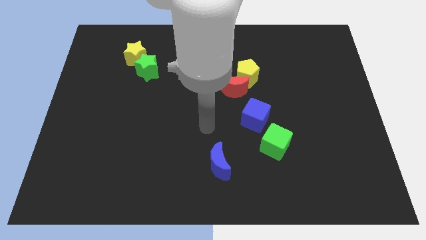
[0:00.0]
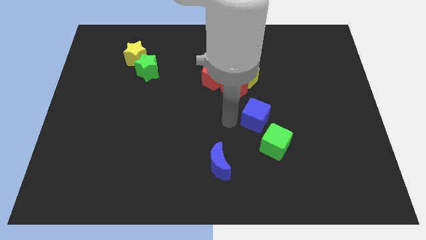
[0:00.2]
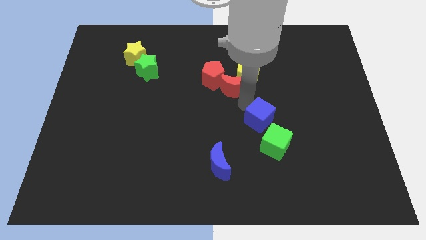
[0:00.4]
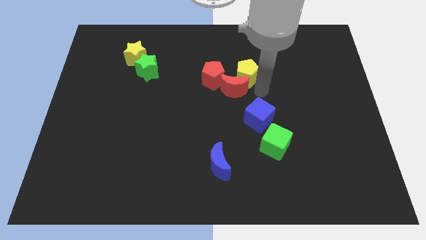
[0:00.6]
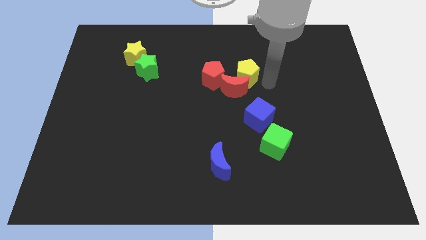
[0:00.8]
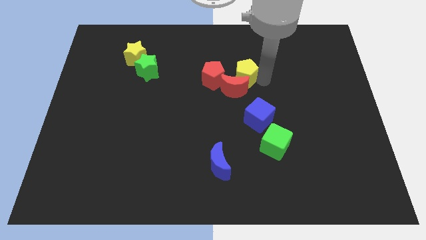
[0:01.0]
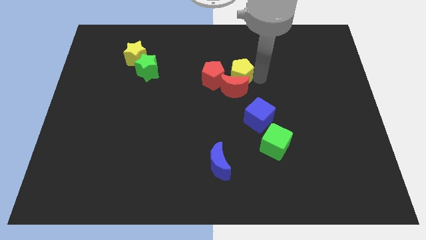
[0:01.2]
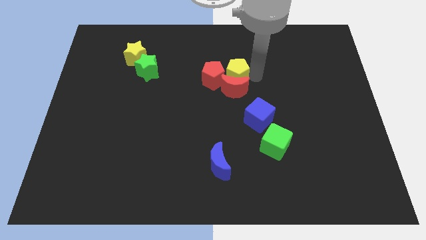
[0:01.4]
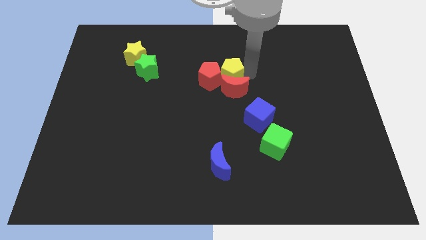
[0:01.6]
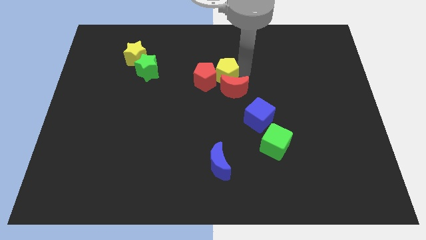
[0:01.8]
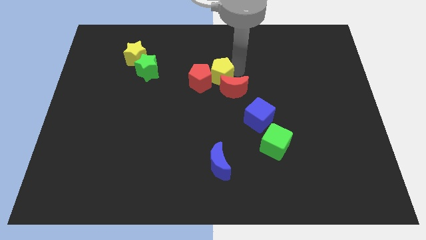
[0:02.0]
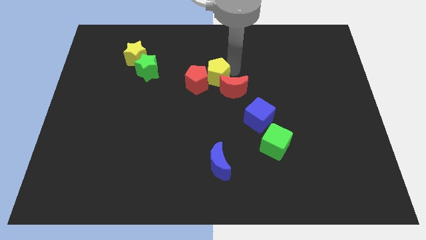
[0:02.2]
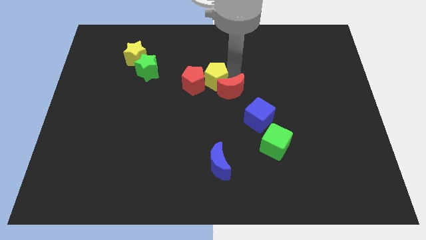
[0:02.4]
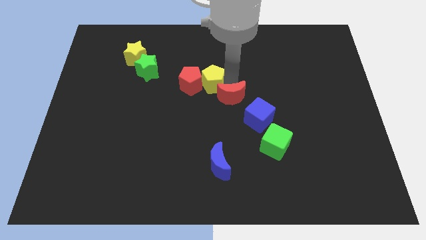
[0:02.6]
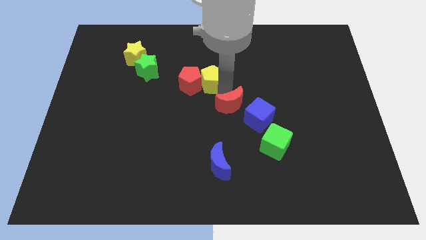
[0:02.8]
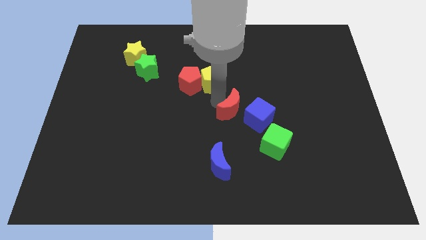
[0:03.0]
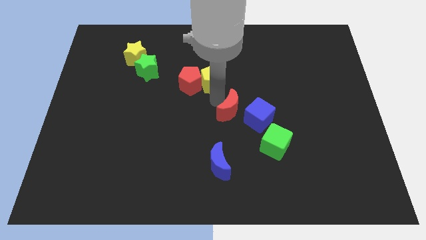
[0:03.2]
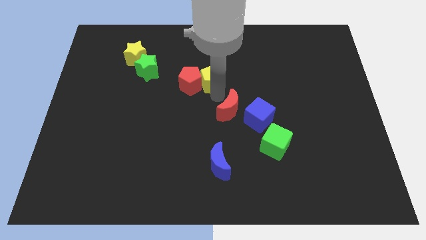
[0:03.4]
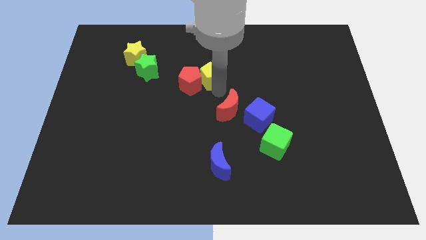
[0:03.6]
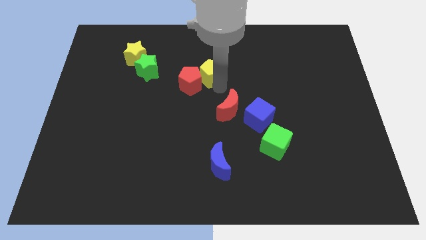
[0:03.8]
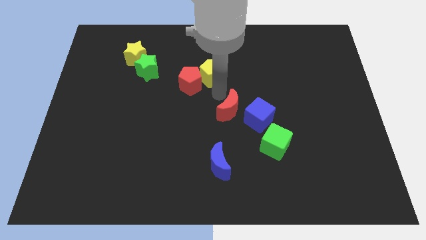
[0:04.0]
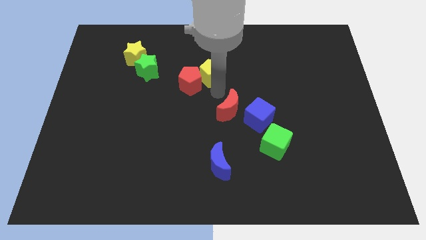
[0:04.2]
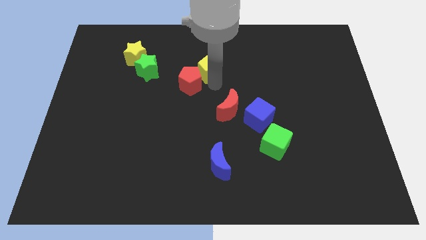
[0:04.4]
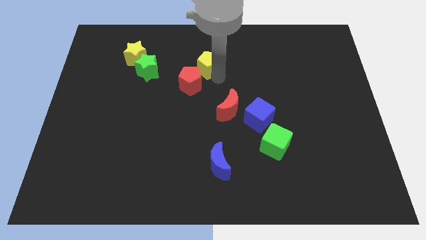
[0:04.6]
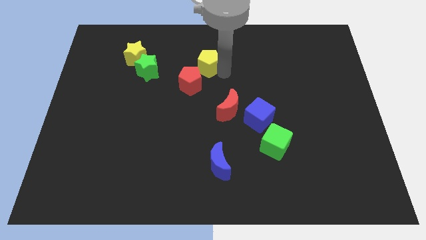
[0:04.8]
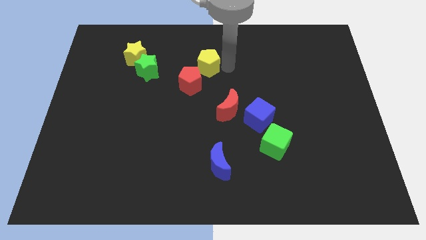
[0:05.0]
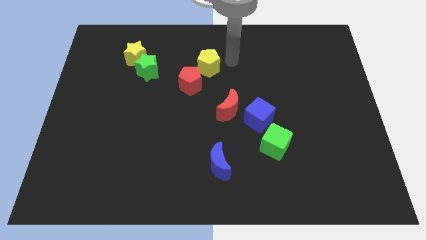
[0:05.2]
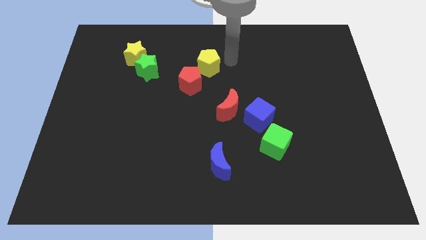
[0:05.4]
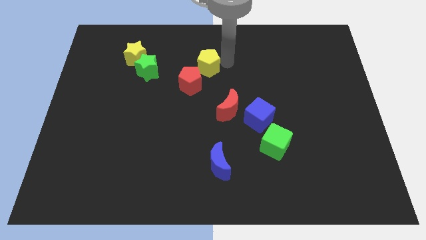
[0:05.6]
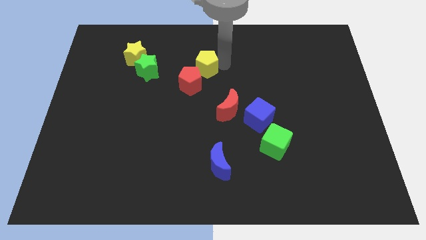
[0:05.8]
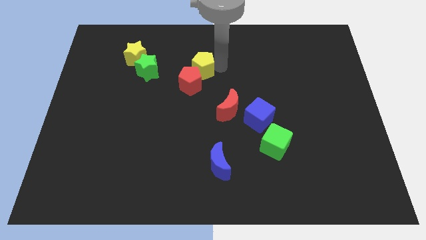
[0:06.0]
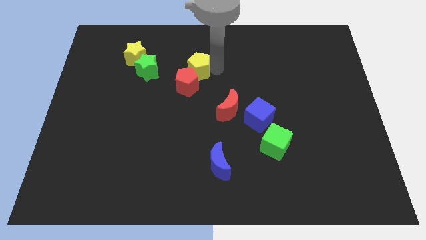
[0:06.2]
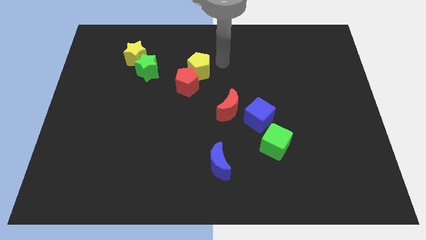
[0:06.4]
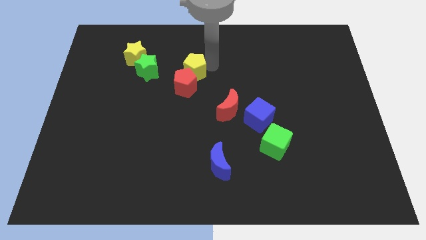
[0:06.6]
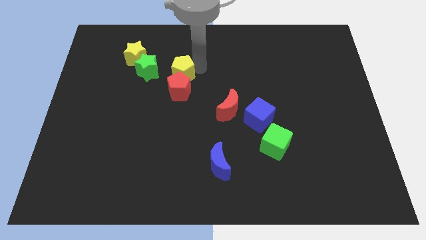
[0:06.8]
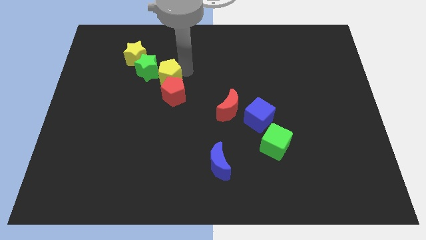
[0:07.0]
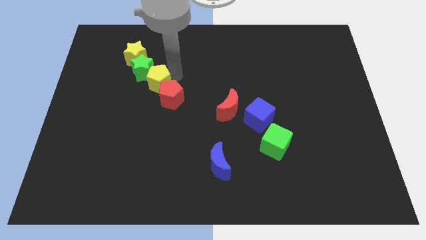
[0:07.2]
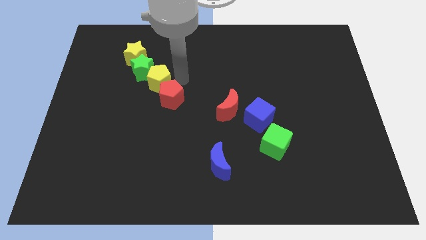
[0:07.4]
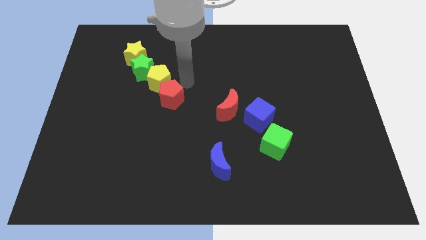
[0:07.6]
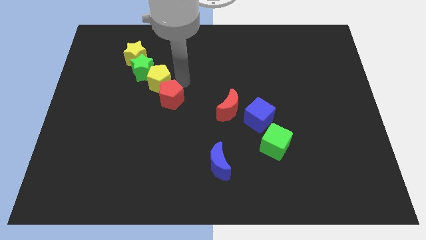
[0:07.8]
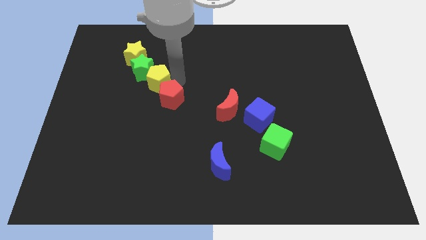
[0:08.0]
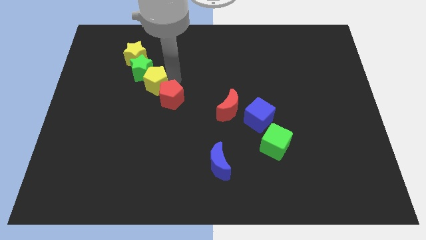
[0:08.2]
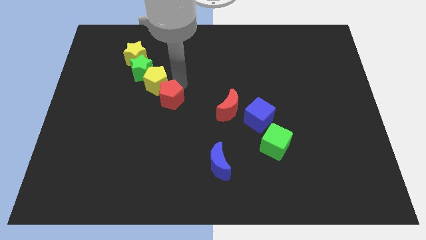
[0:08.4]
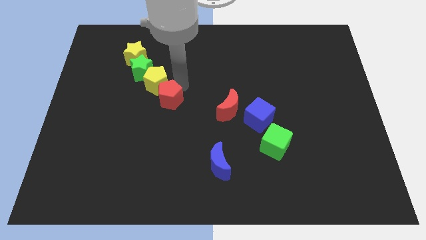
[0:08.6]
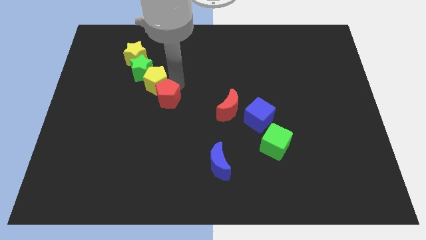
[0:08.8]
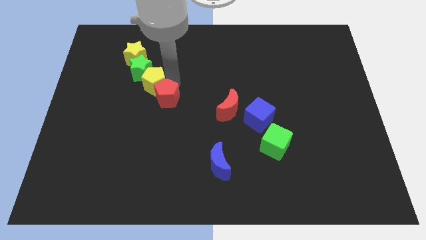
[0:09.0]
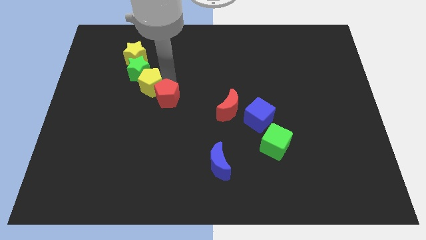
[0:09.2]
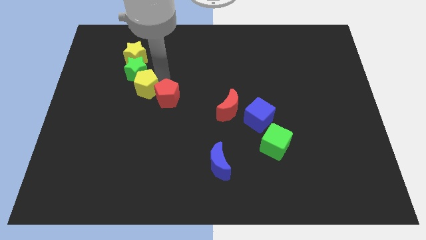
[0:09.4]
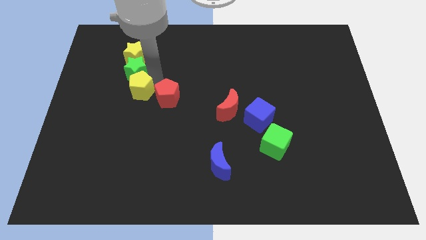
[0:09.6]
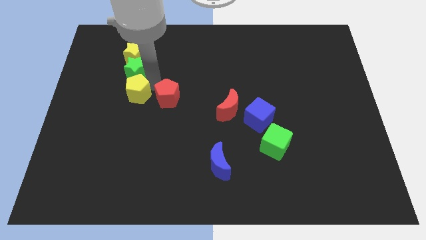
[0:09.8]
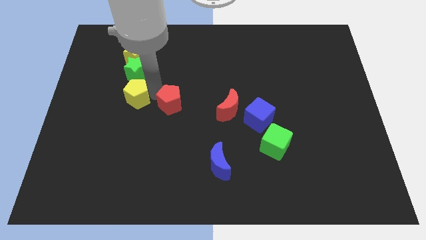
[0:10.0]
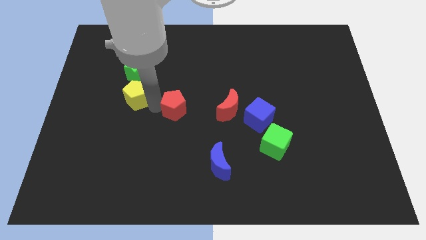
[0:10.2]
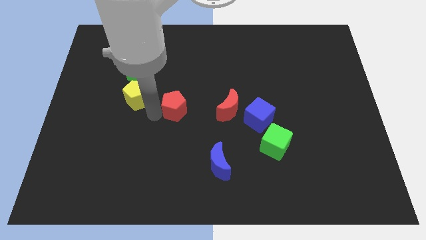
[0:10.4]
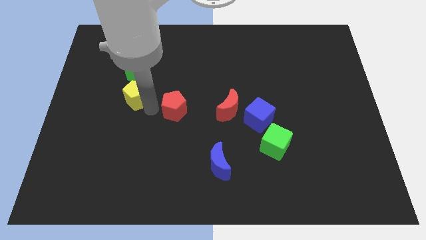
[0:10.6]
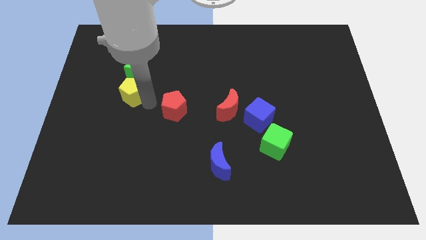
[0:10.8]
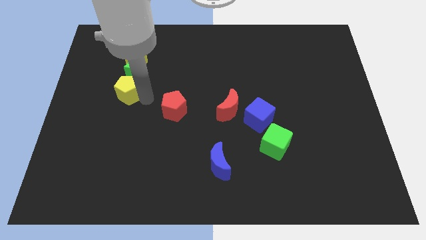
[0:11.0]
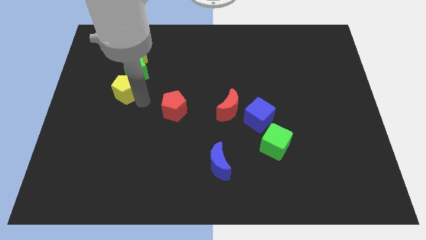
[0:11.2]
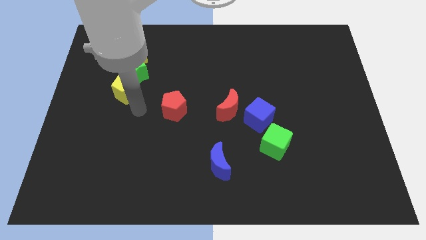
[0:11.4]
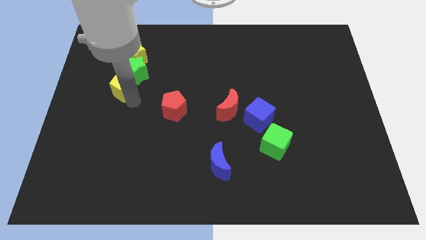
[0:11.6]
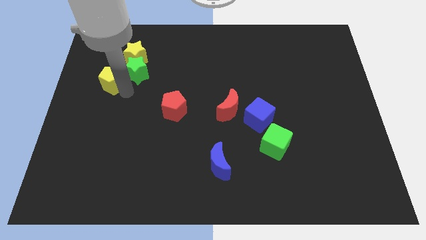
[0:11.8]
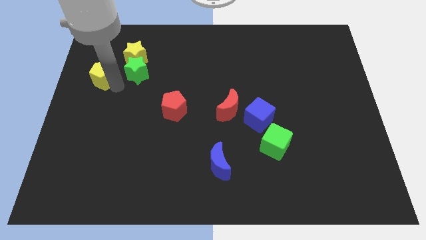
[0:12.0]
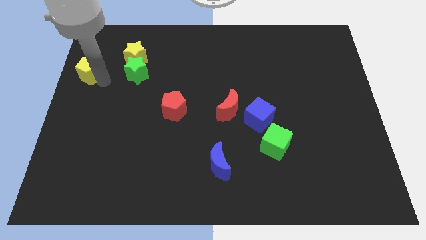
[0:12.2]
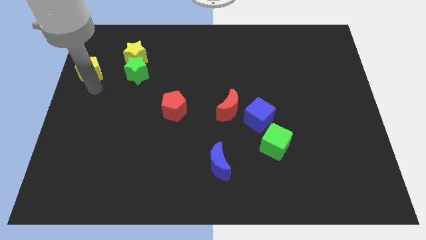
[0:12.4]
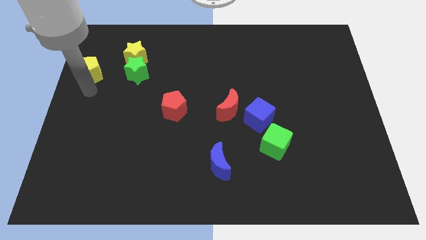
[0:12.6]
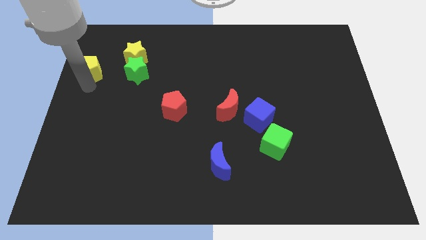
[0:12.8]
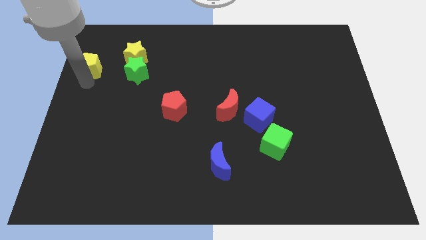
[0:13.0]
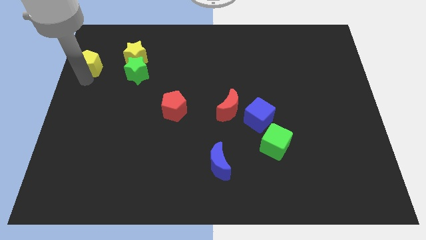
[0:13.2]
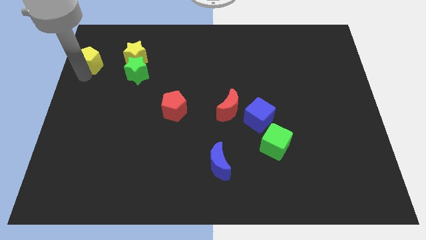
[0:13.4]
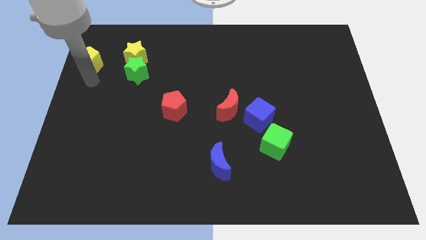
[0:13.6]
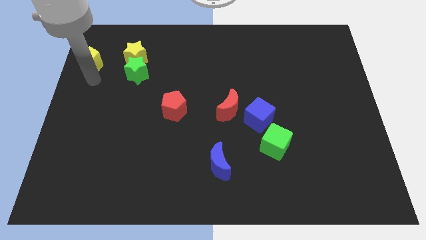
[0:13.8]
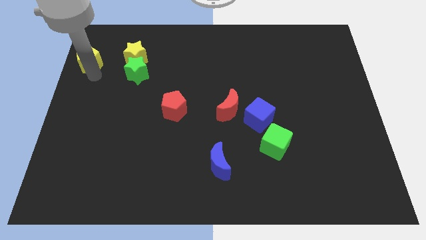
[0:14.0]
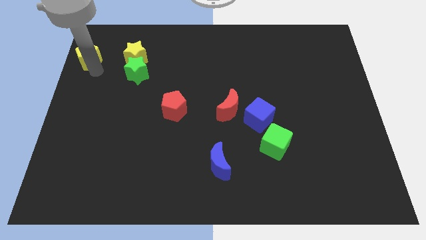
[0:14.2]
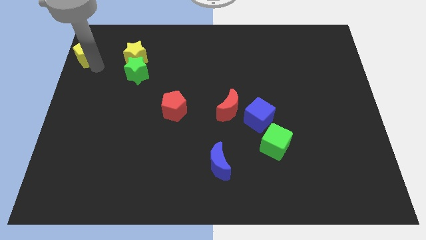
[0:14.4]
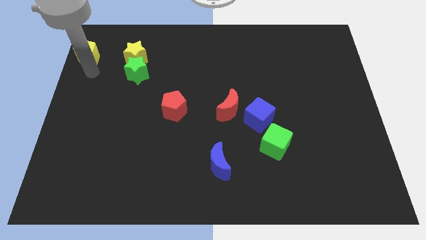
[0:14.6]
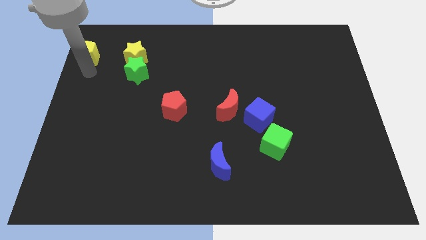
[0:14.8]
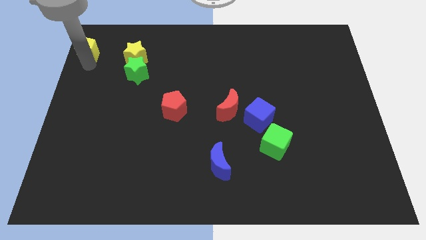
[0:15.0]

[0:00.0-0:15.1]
move the yellow pentagon to the top left of the board
